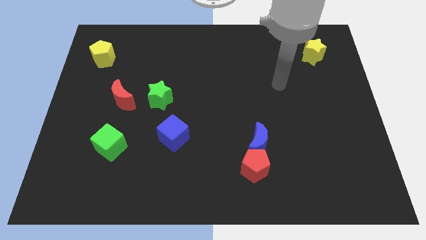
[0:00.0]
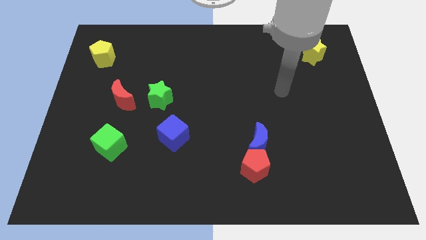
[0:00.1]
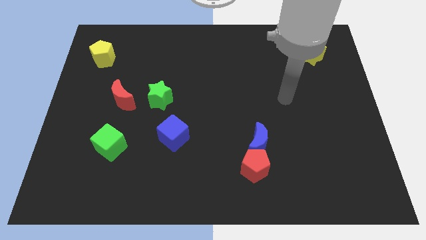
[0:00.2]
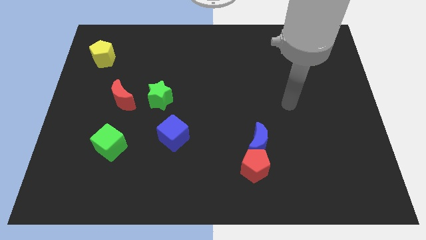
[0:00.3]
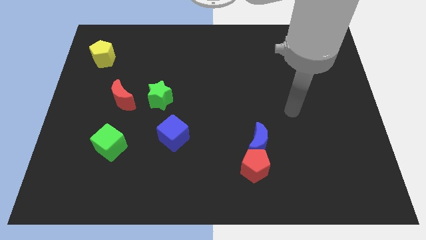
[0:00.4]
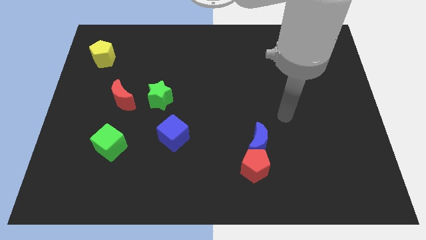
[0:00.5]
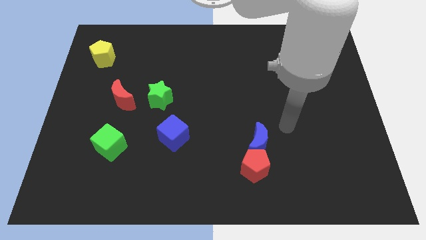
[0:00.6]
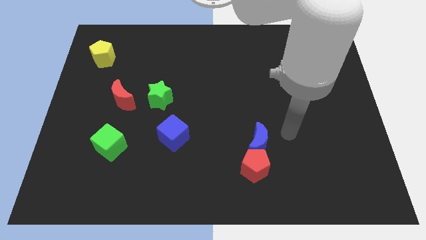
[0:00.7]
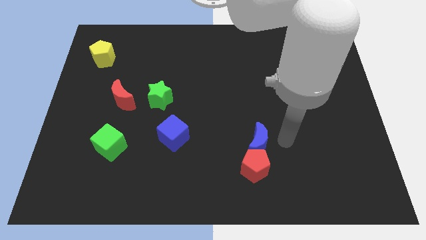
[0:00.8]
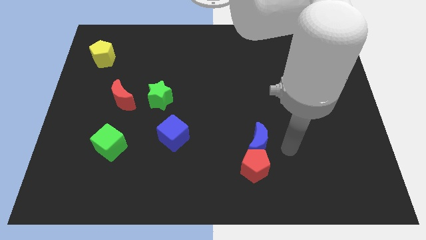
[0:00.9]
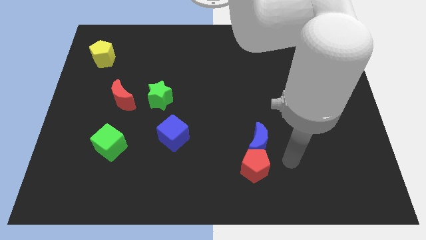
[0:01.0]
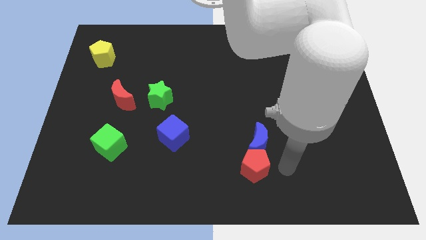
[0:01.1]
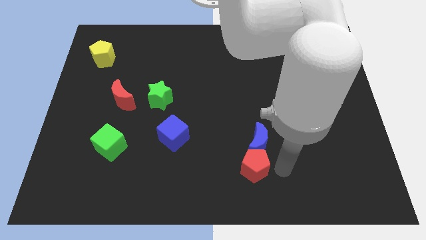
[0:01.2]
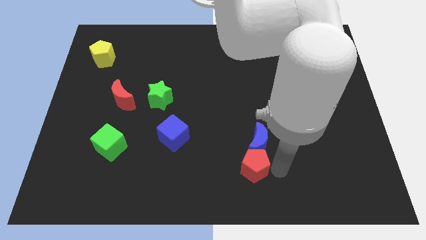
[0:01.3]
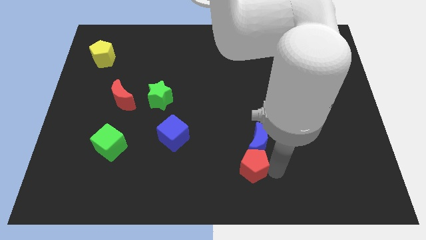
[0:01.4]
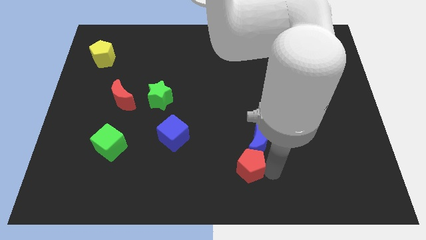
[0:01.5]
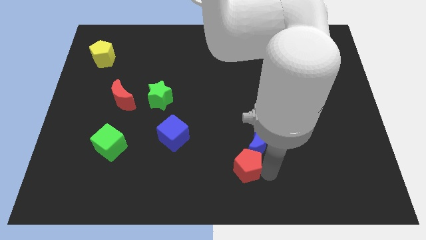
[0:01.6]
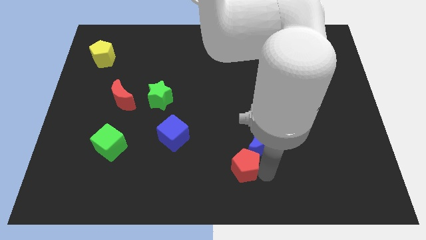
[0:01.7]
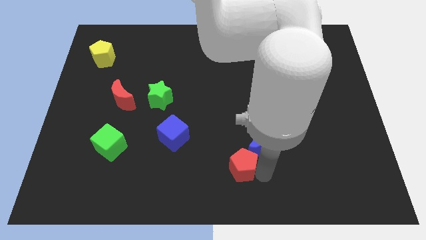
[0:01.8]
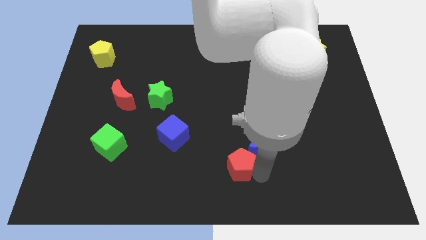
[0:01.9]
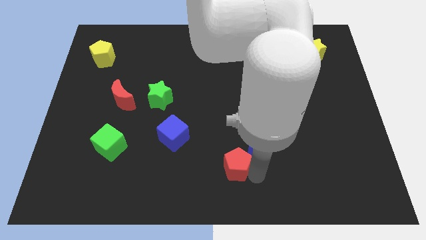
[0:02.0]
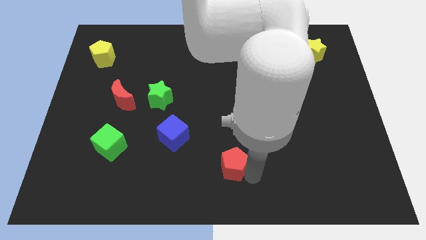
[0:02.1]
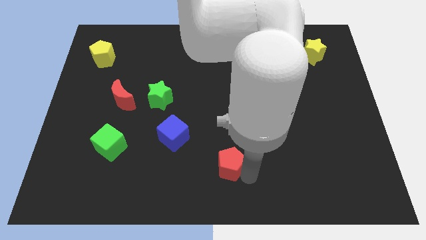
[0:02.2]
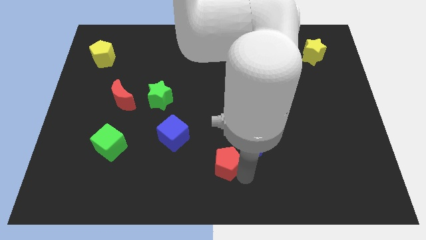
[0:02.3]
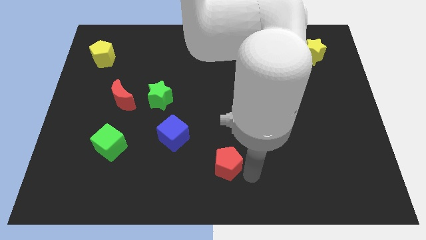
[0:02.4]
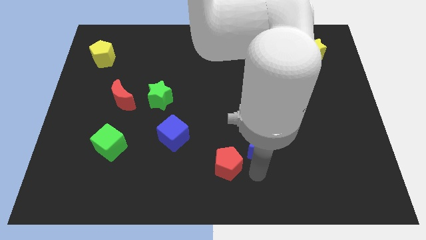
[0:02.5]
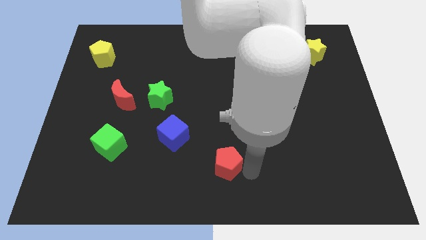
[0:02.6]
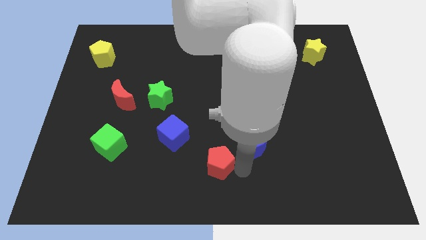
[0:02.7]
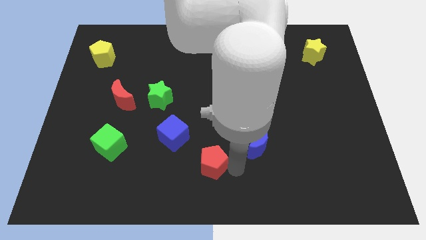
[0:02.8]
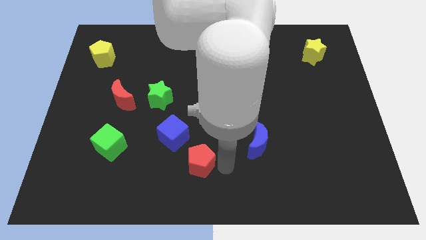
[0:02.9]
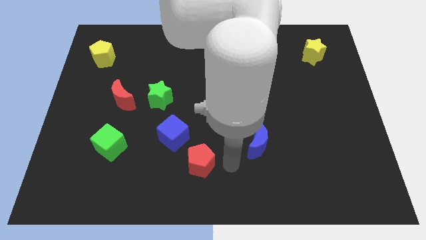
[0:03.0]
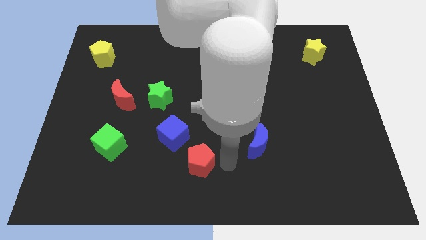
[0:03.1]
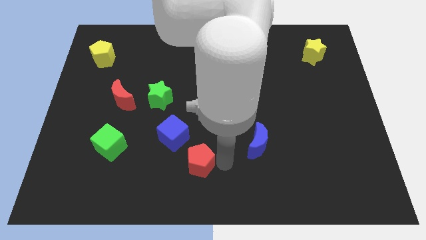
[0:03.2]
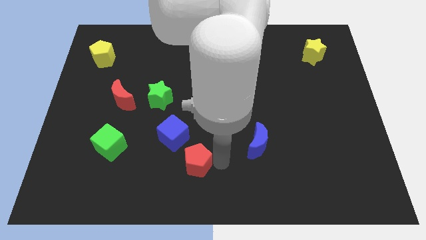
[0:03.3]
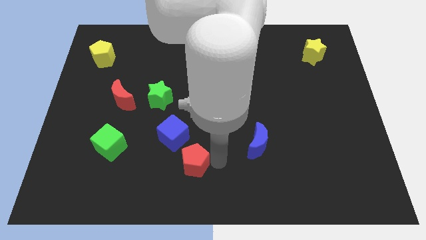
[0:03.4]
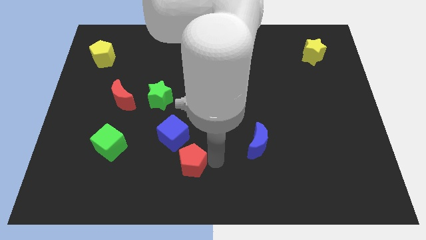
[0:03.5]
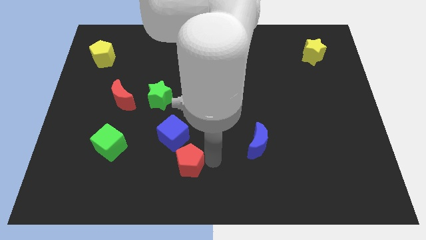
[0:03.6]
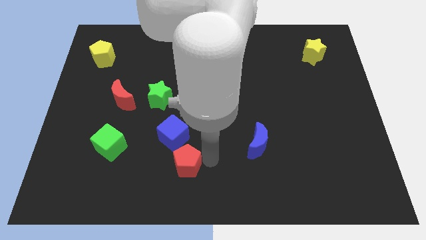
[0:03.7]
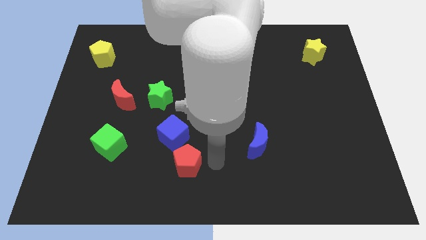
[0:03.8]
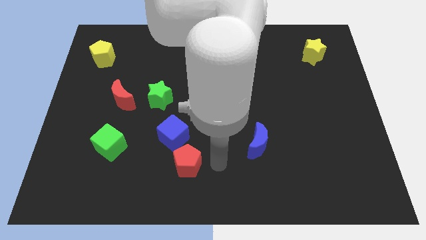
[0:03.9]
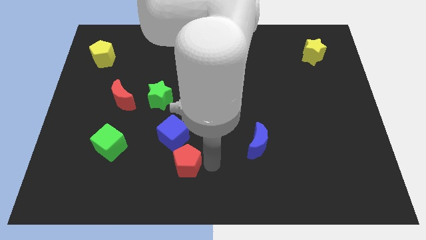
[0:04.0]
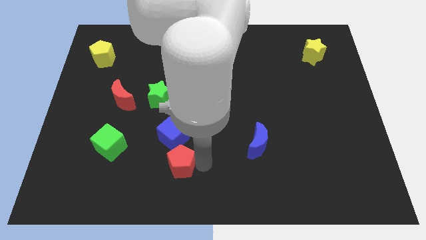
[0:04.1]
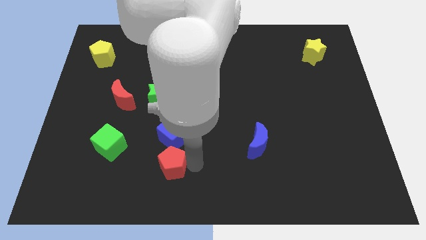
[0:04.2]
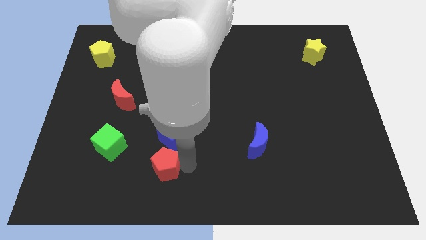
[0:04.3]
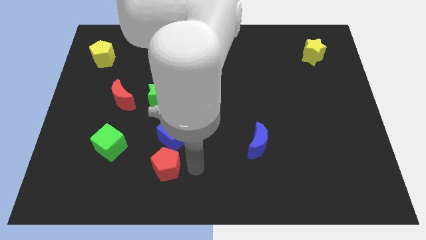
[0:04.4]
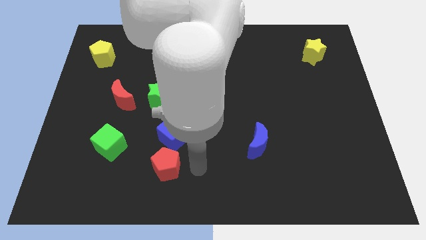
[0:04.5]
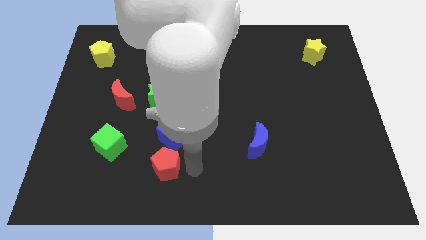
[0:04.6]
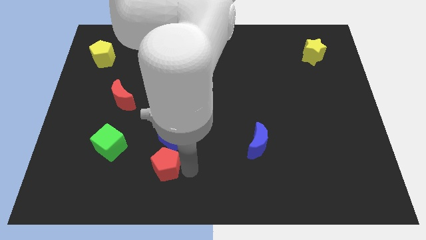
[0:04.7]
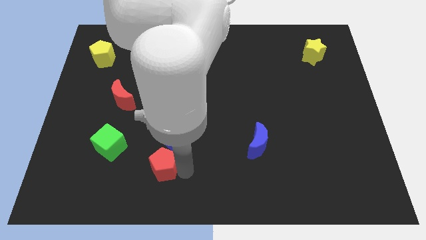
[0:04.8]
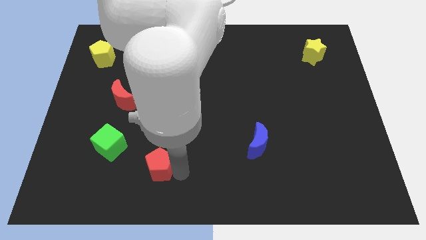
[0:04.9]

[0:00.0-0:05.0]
move the red pentagon left

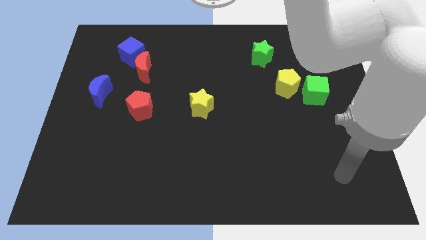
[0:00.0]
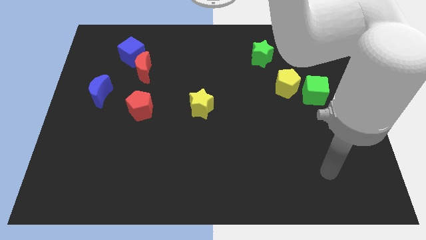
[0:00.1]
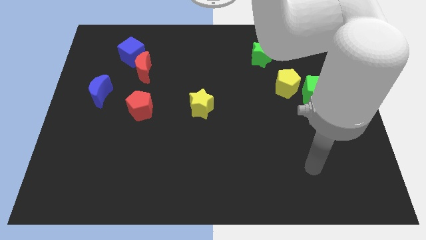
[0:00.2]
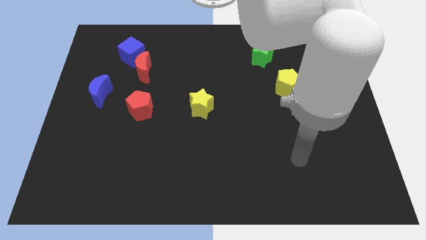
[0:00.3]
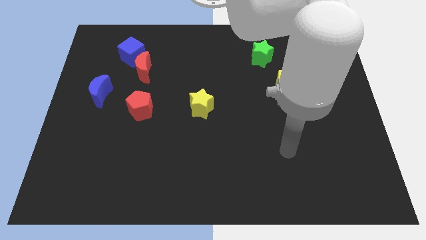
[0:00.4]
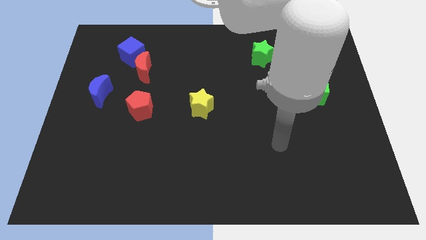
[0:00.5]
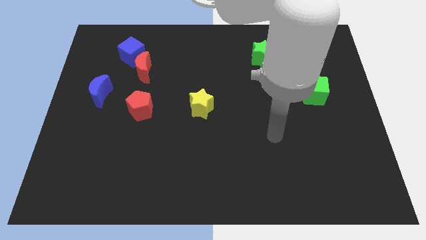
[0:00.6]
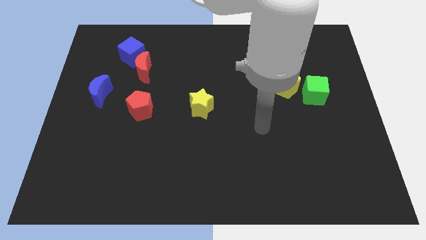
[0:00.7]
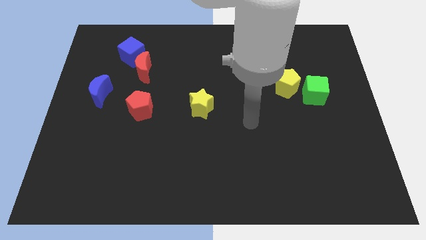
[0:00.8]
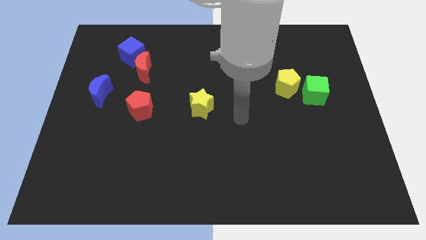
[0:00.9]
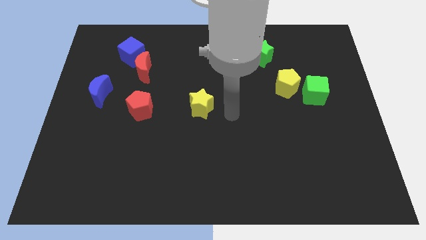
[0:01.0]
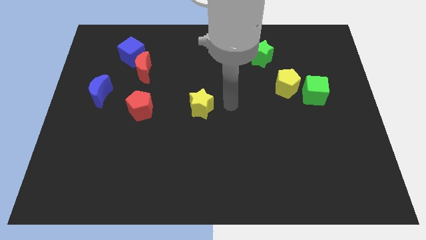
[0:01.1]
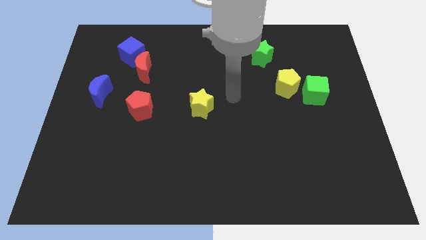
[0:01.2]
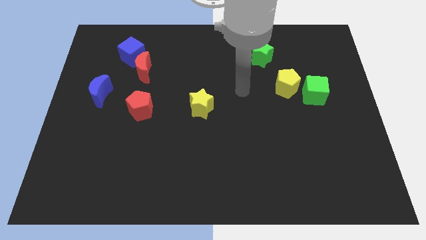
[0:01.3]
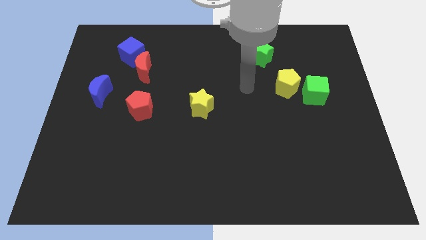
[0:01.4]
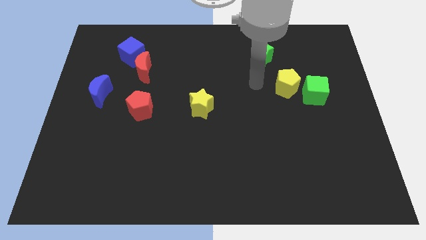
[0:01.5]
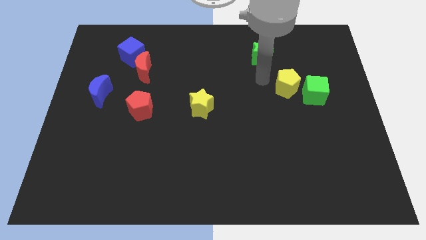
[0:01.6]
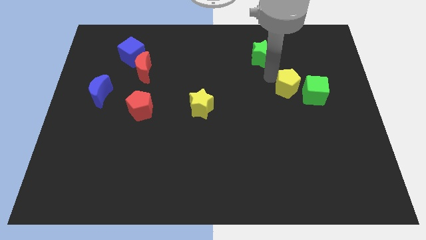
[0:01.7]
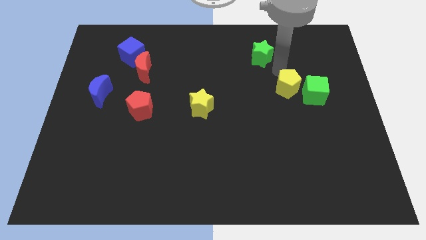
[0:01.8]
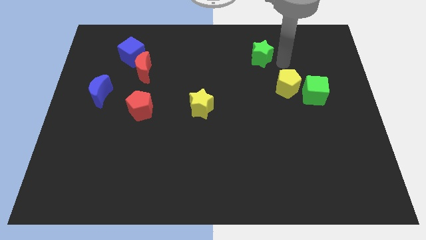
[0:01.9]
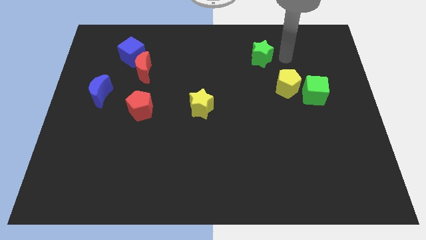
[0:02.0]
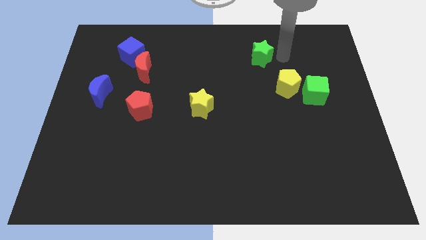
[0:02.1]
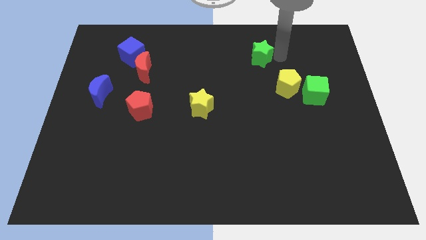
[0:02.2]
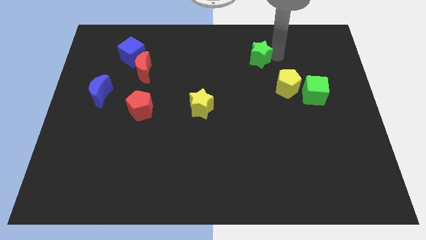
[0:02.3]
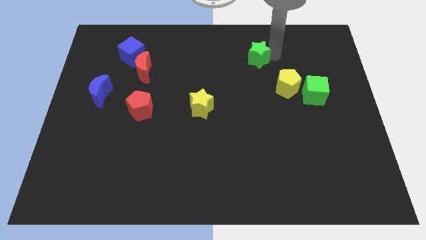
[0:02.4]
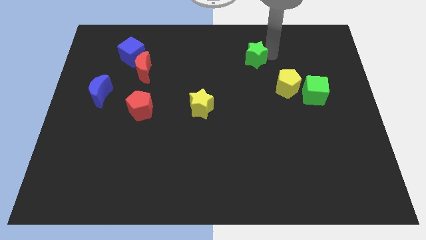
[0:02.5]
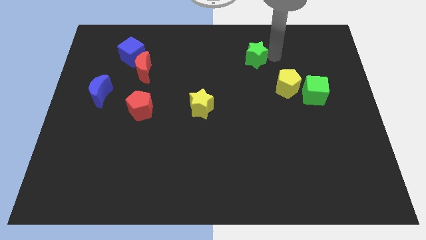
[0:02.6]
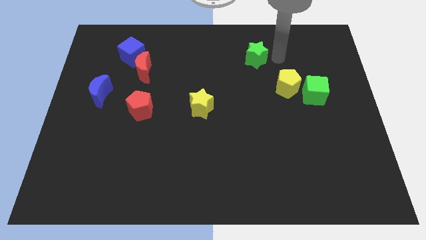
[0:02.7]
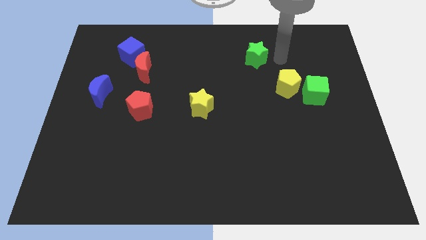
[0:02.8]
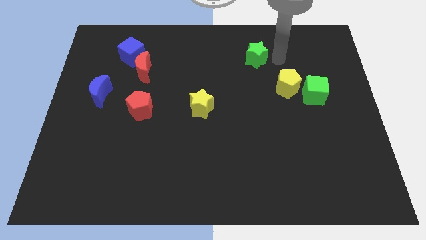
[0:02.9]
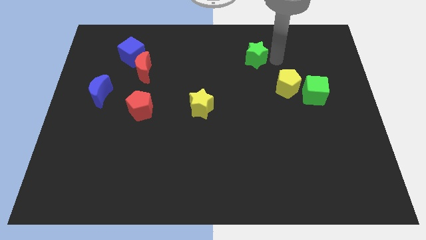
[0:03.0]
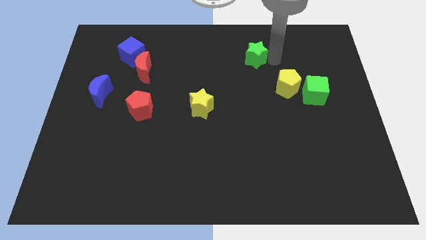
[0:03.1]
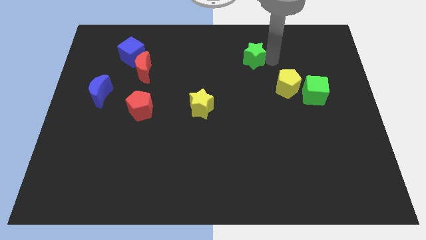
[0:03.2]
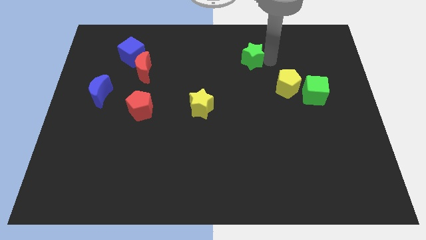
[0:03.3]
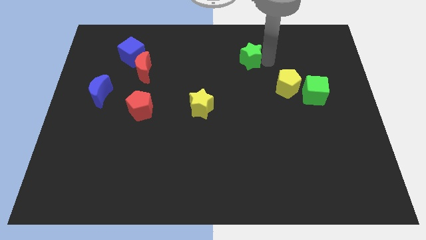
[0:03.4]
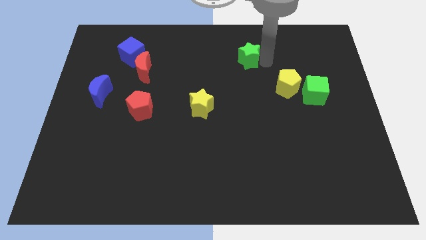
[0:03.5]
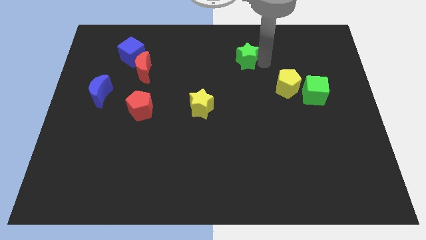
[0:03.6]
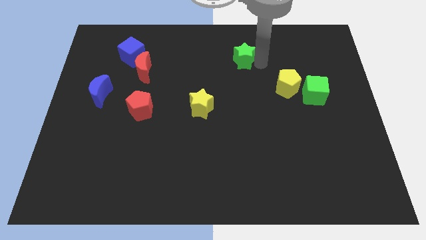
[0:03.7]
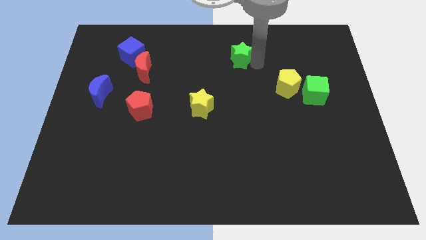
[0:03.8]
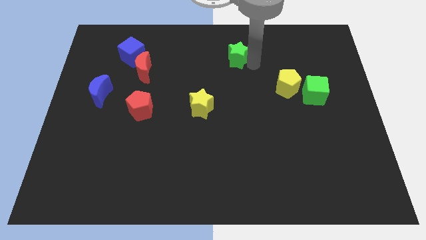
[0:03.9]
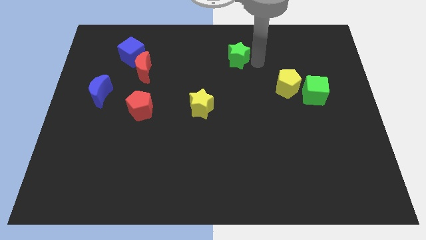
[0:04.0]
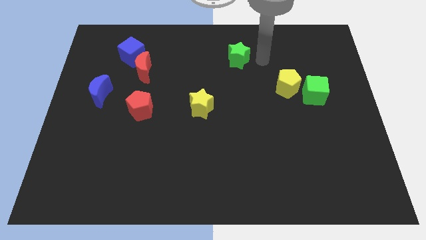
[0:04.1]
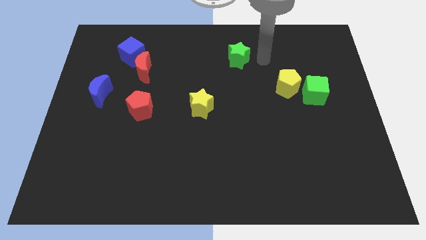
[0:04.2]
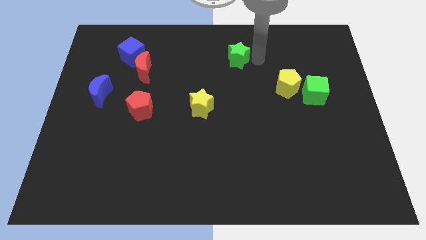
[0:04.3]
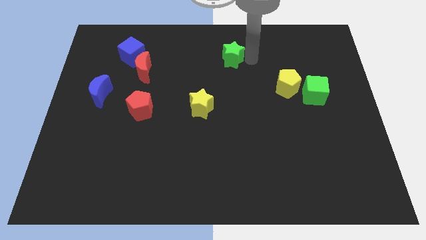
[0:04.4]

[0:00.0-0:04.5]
move the green star somewhat left
